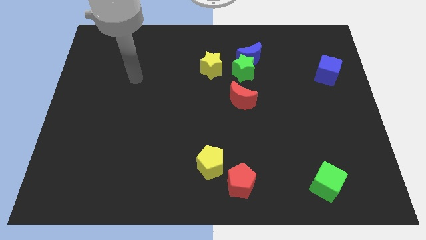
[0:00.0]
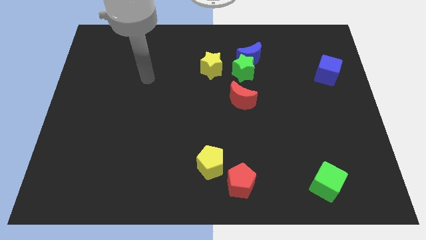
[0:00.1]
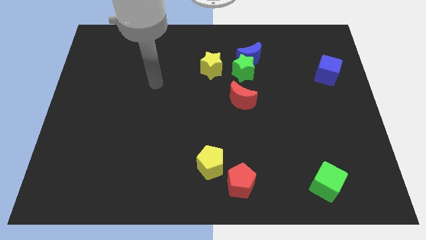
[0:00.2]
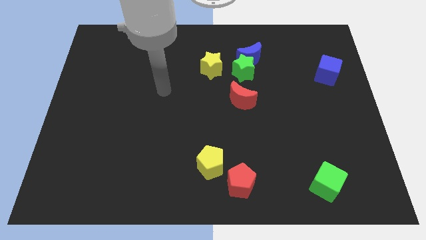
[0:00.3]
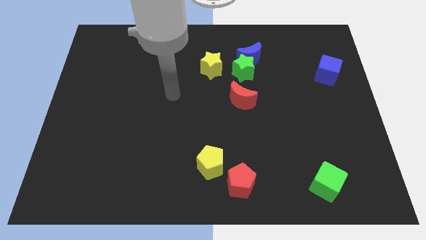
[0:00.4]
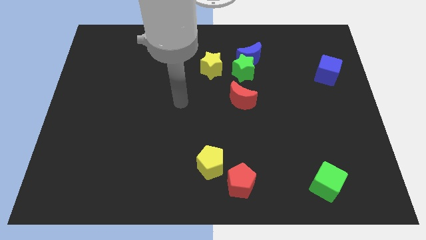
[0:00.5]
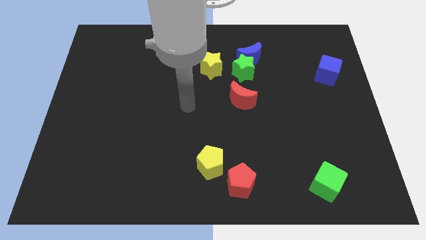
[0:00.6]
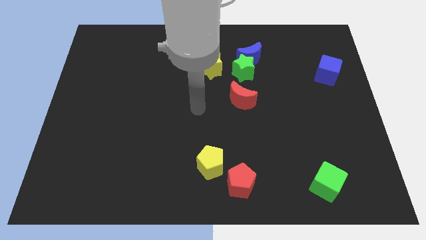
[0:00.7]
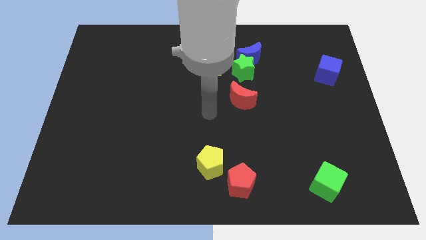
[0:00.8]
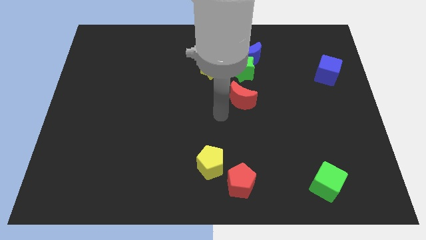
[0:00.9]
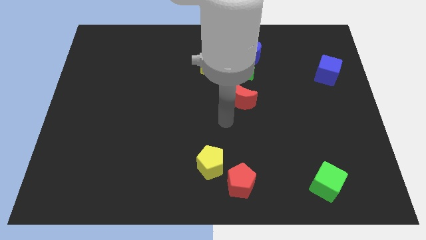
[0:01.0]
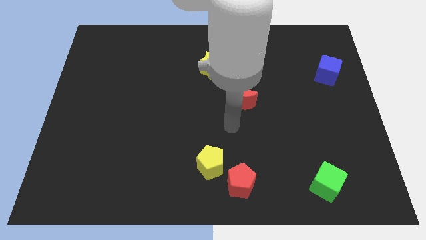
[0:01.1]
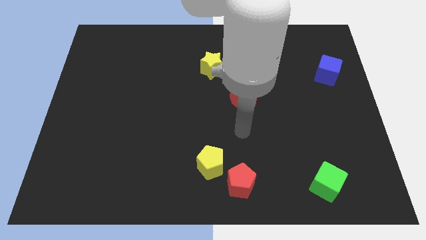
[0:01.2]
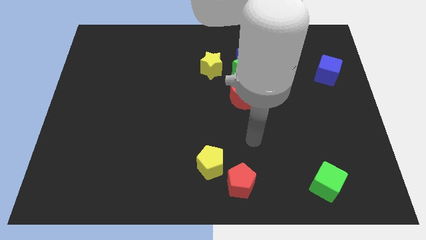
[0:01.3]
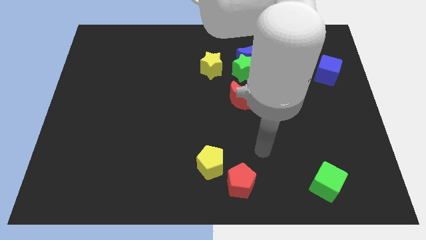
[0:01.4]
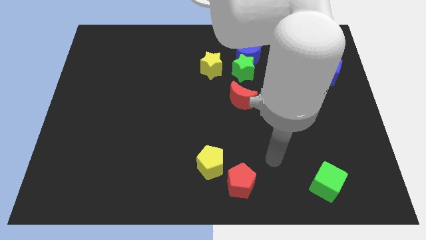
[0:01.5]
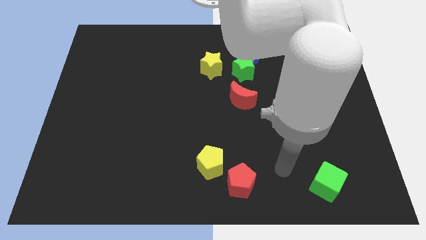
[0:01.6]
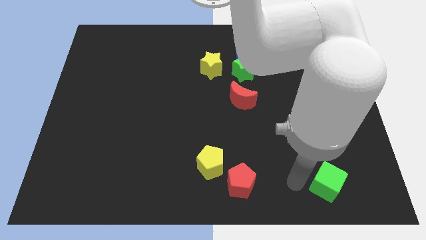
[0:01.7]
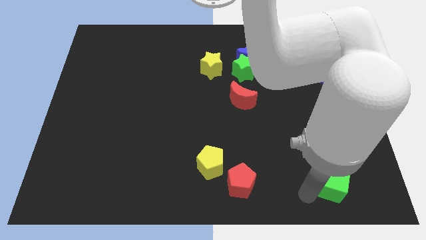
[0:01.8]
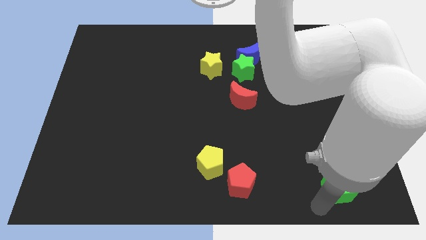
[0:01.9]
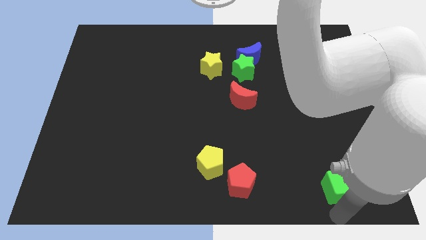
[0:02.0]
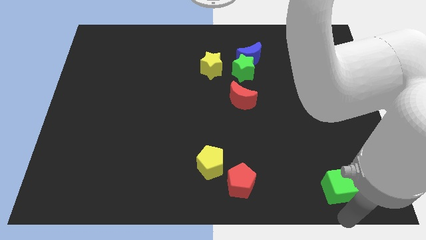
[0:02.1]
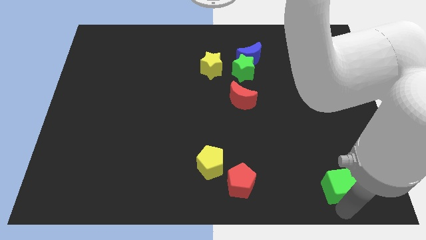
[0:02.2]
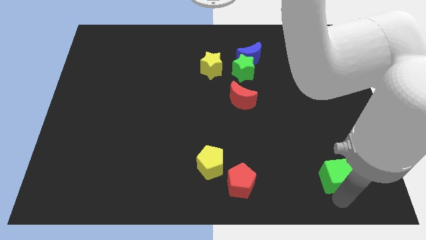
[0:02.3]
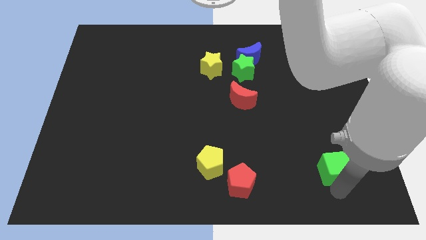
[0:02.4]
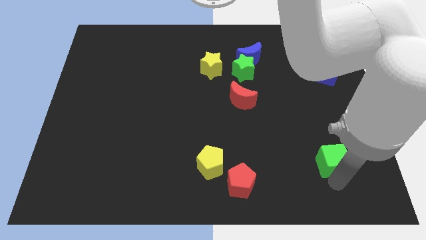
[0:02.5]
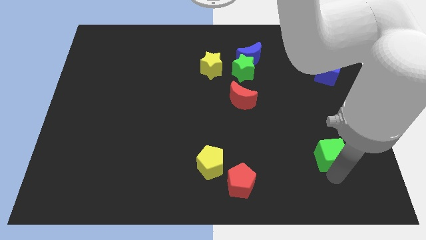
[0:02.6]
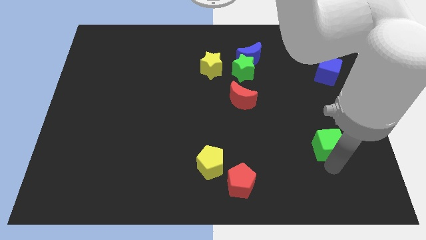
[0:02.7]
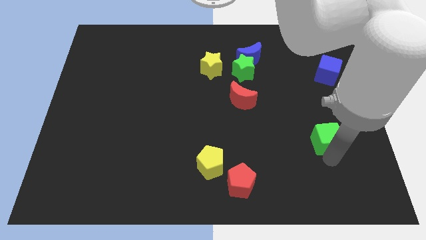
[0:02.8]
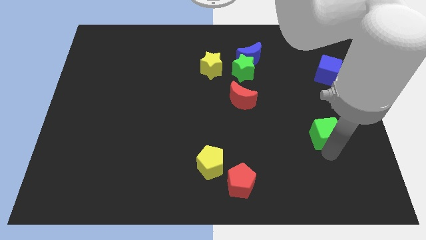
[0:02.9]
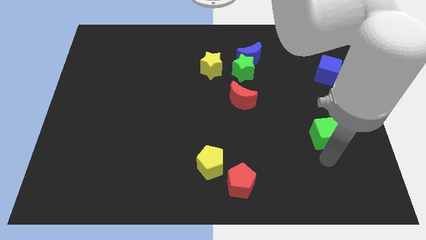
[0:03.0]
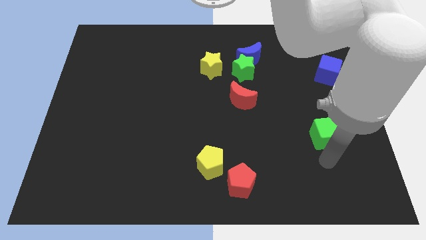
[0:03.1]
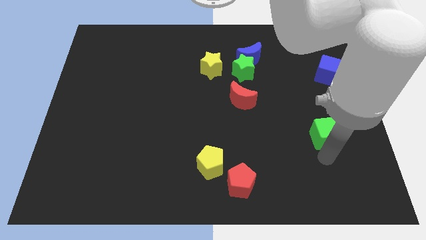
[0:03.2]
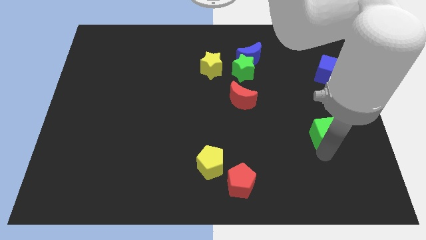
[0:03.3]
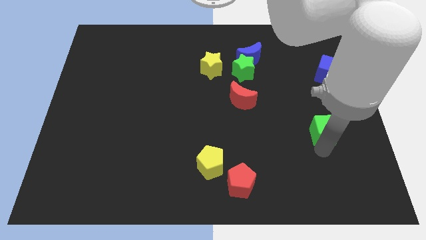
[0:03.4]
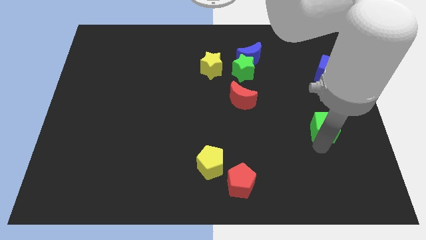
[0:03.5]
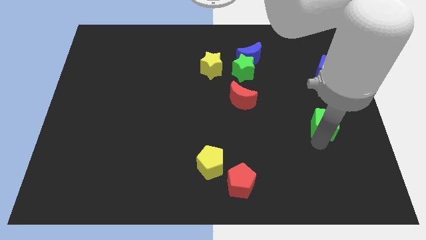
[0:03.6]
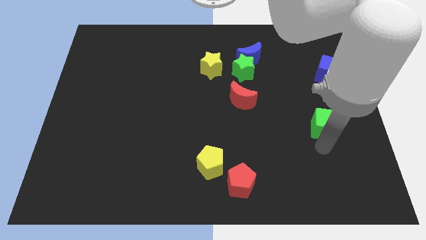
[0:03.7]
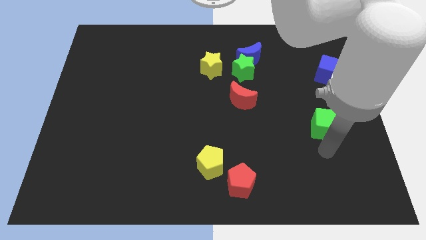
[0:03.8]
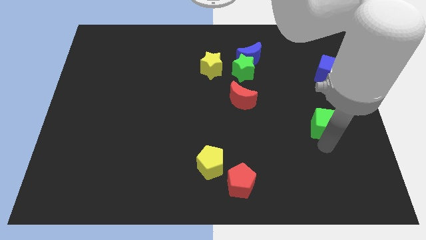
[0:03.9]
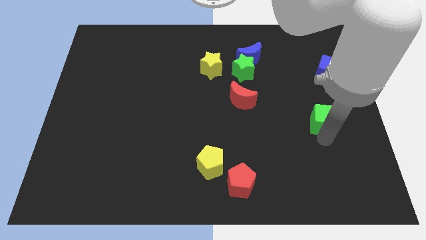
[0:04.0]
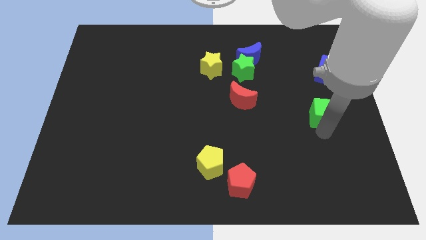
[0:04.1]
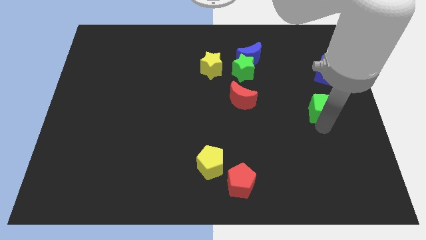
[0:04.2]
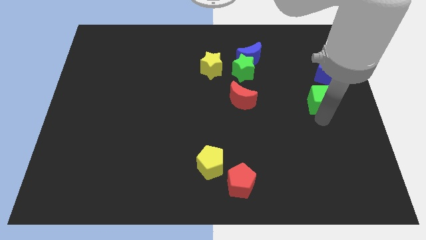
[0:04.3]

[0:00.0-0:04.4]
slide the green cube up

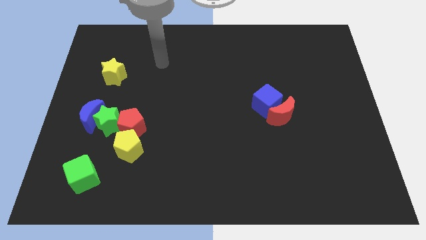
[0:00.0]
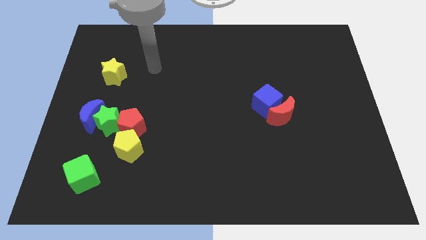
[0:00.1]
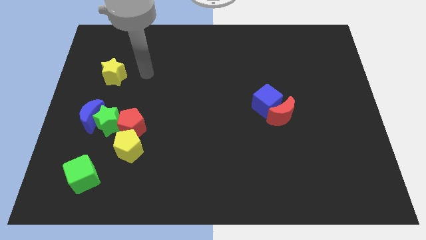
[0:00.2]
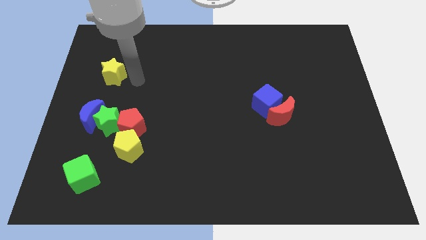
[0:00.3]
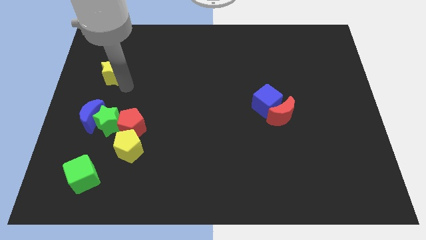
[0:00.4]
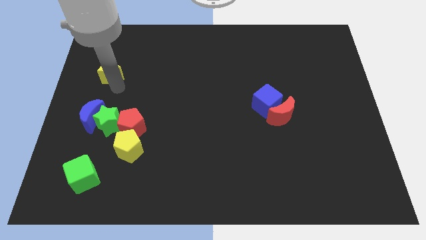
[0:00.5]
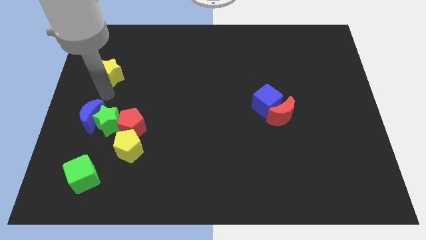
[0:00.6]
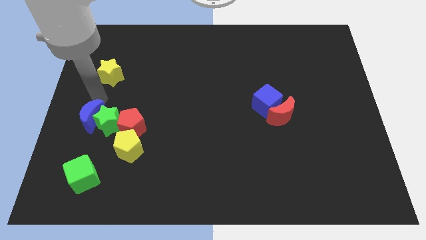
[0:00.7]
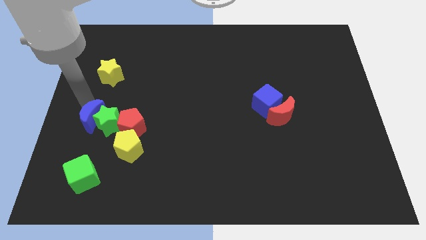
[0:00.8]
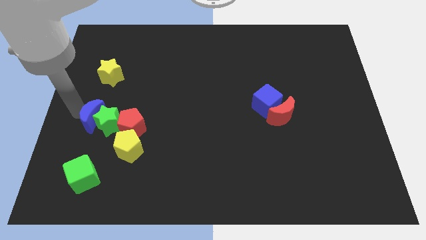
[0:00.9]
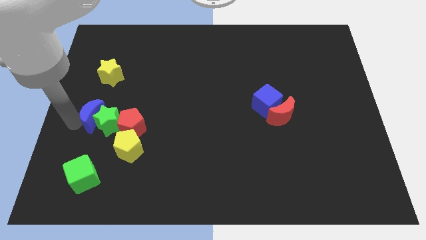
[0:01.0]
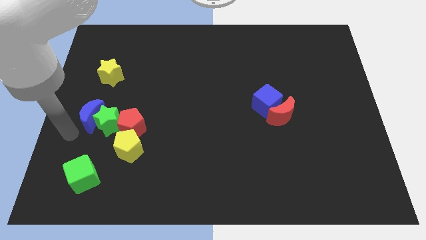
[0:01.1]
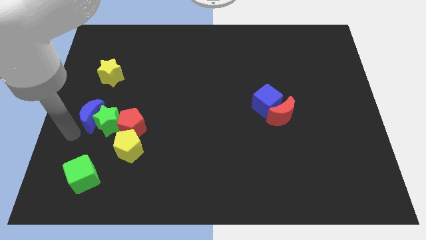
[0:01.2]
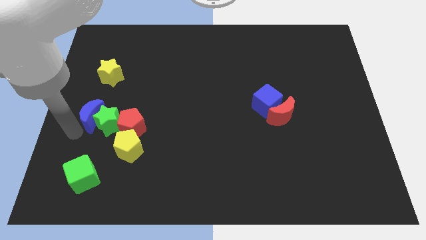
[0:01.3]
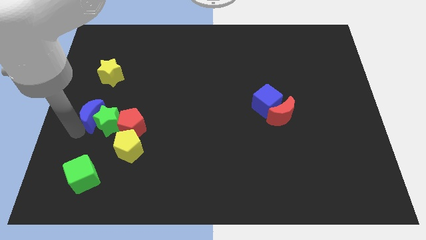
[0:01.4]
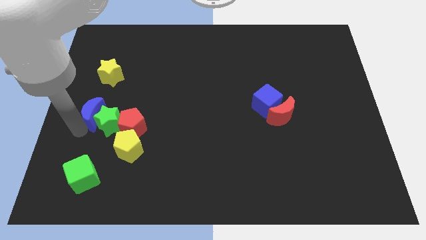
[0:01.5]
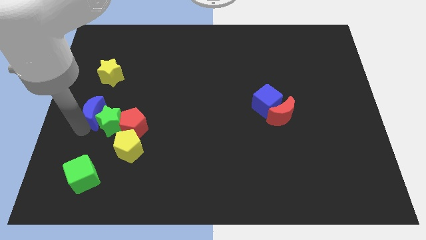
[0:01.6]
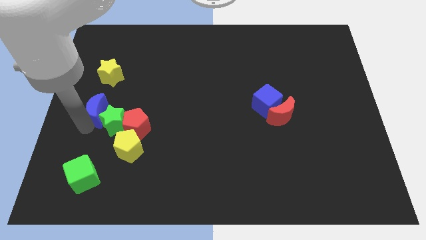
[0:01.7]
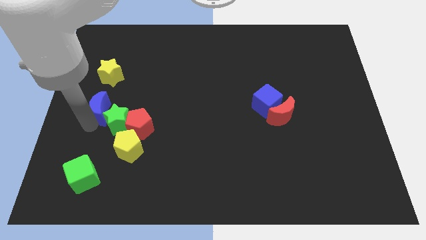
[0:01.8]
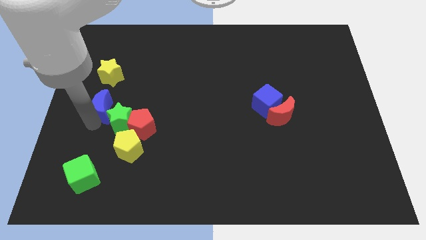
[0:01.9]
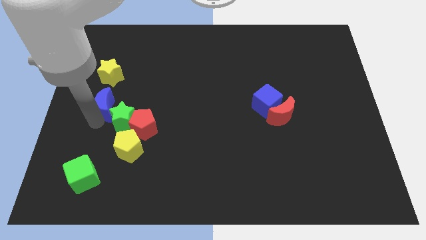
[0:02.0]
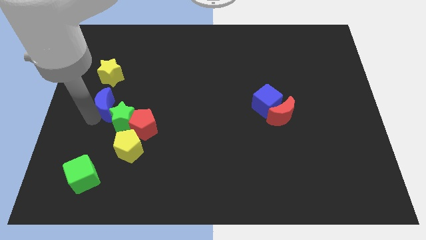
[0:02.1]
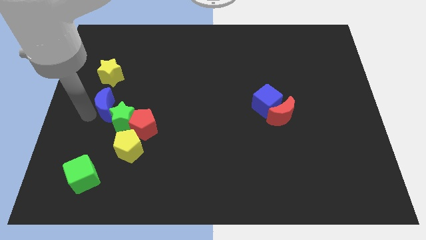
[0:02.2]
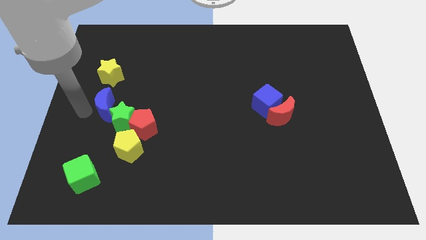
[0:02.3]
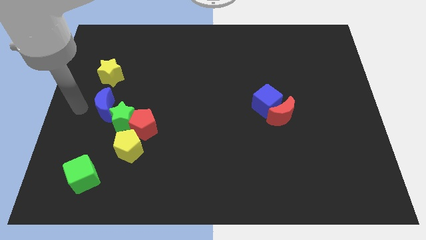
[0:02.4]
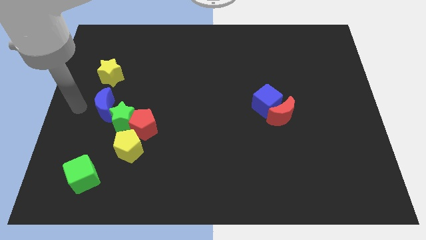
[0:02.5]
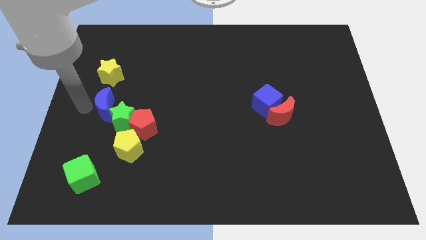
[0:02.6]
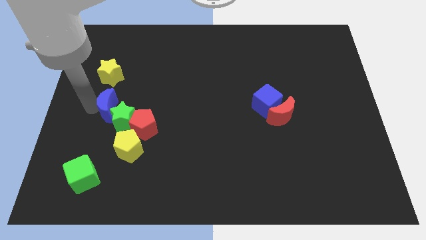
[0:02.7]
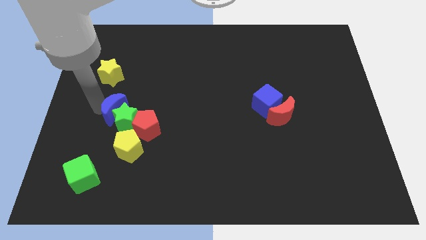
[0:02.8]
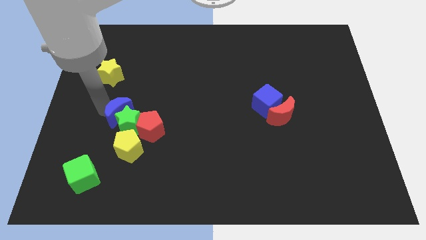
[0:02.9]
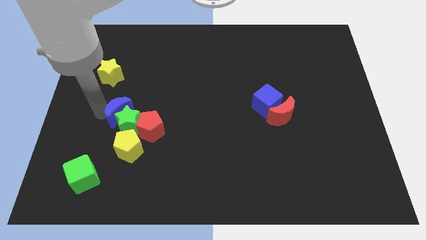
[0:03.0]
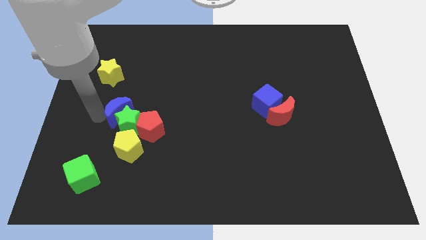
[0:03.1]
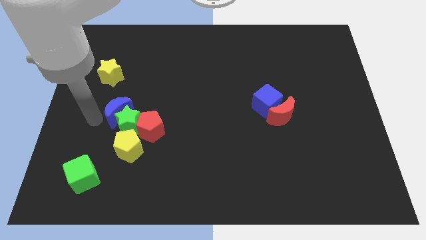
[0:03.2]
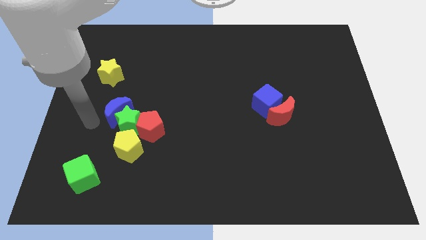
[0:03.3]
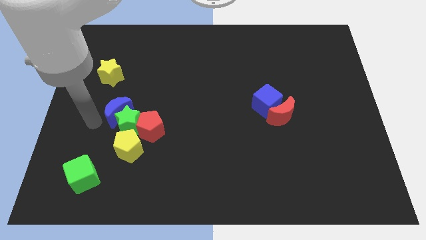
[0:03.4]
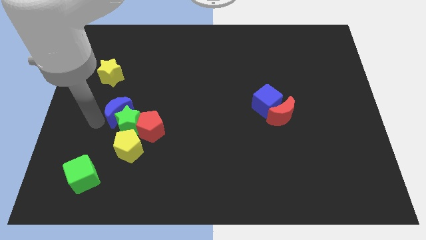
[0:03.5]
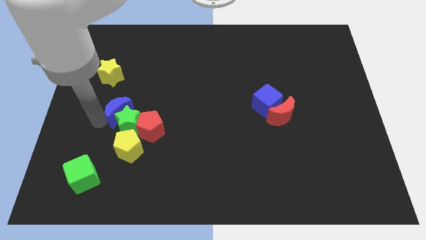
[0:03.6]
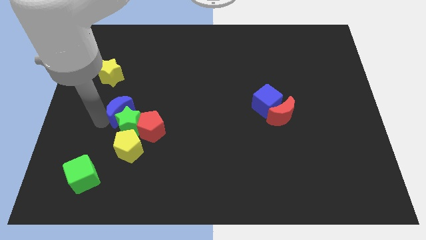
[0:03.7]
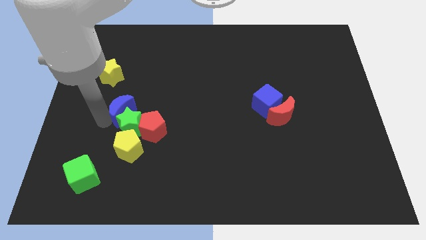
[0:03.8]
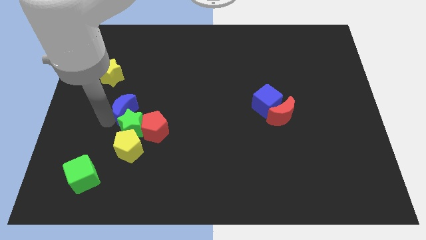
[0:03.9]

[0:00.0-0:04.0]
slightly move the blue moon to the right
